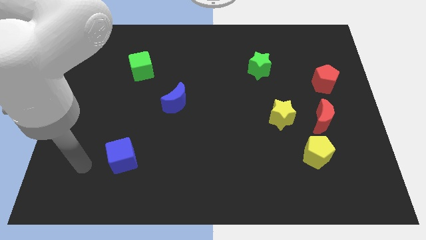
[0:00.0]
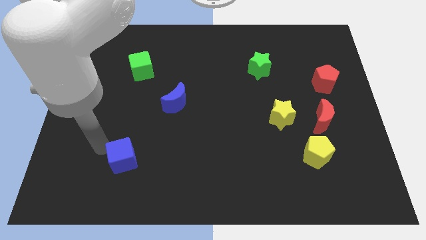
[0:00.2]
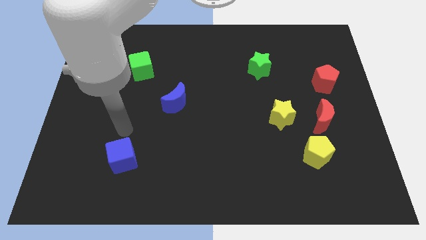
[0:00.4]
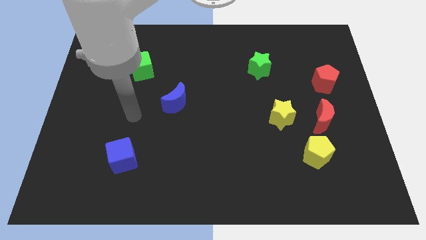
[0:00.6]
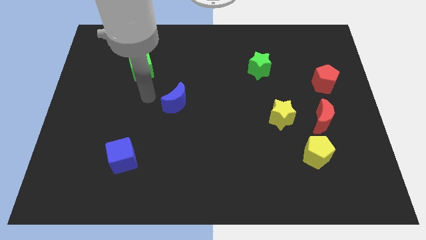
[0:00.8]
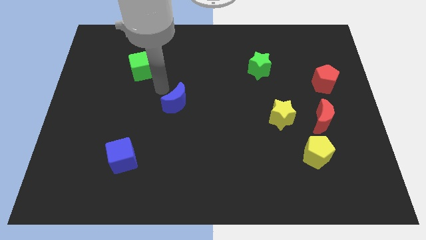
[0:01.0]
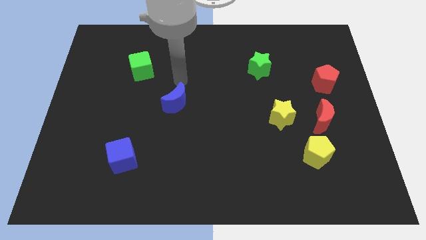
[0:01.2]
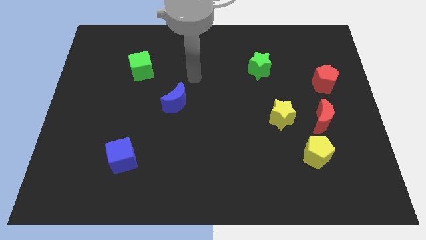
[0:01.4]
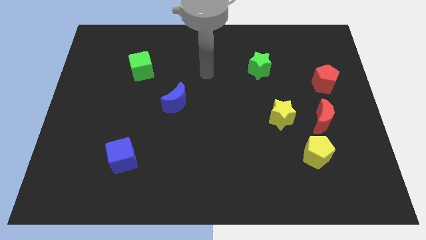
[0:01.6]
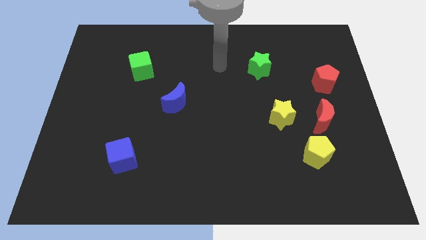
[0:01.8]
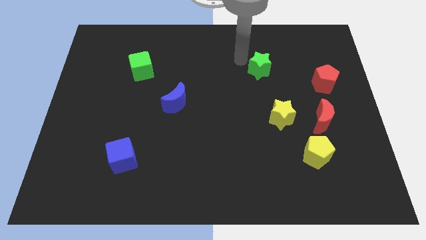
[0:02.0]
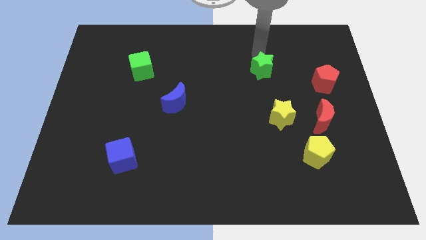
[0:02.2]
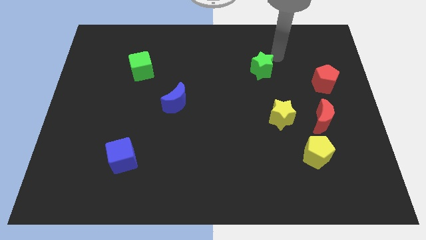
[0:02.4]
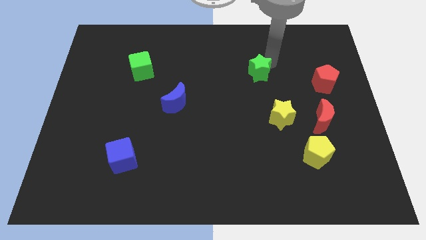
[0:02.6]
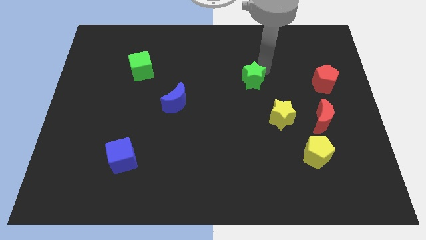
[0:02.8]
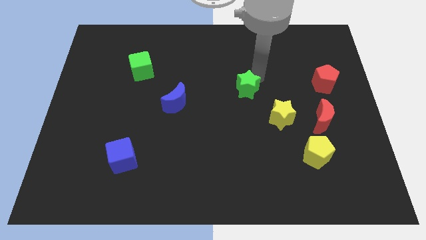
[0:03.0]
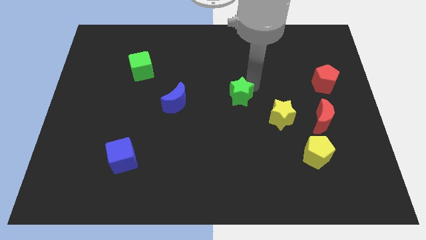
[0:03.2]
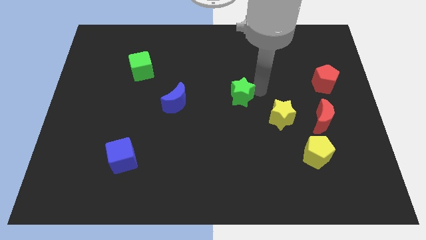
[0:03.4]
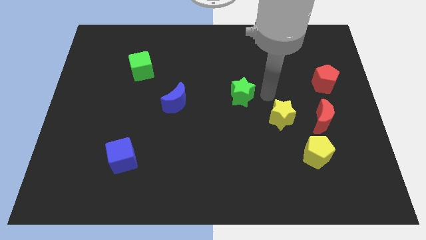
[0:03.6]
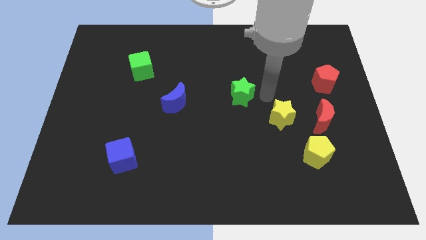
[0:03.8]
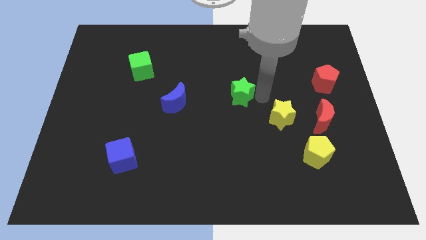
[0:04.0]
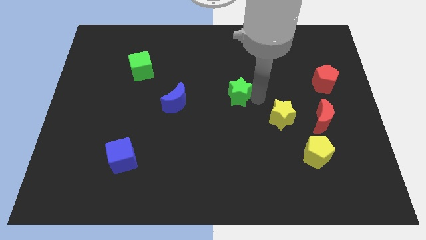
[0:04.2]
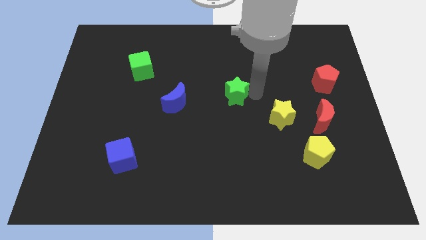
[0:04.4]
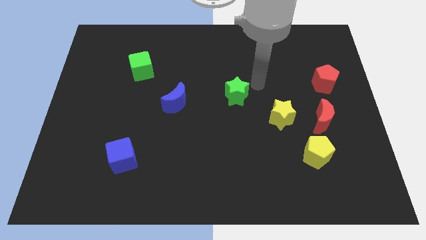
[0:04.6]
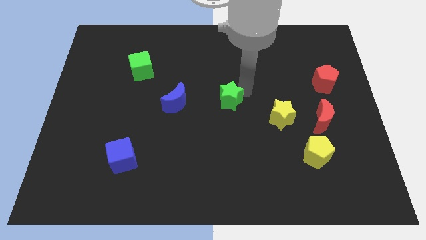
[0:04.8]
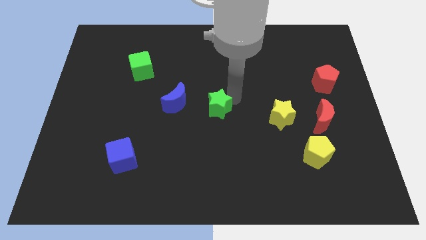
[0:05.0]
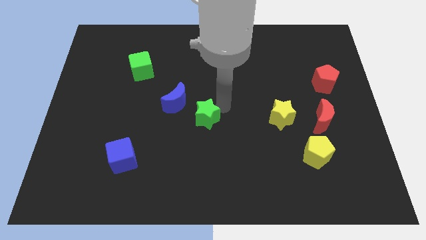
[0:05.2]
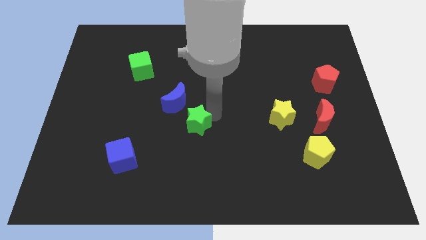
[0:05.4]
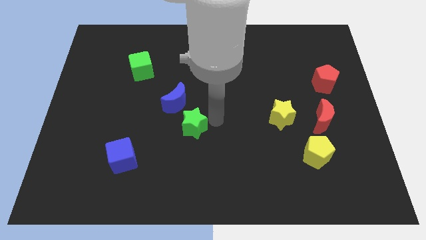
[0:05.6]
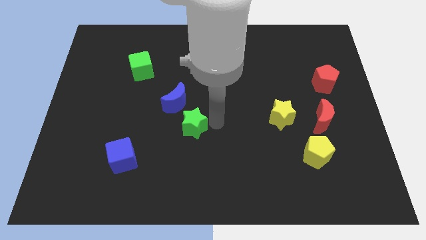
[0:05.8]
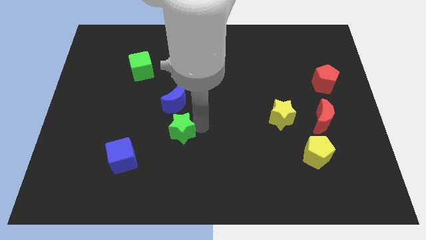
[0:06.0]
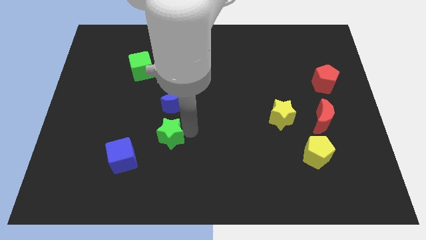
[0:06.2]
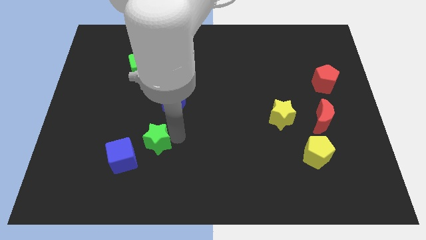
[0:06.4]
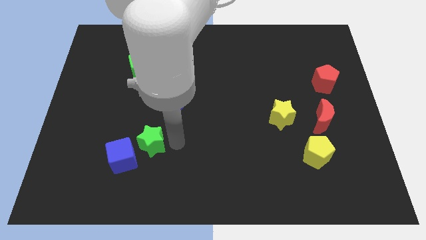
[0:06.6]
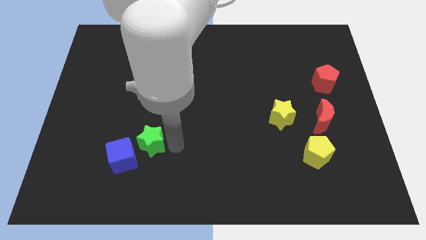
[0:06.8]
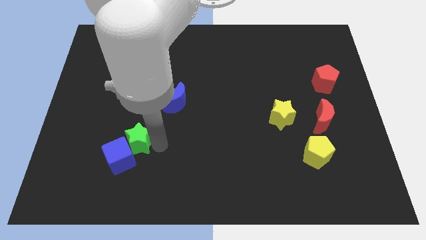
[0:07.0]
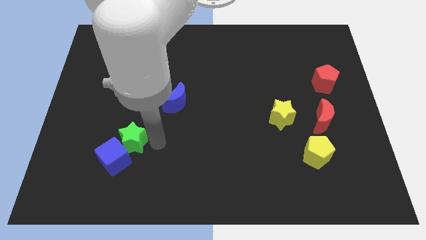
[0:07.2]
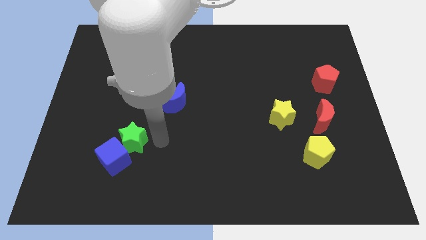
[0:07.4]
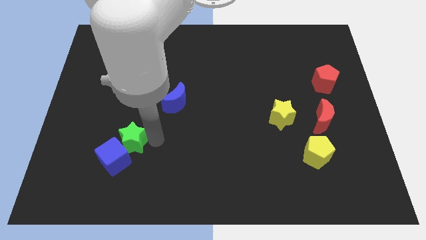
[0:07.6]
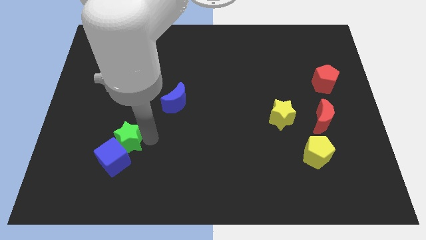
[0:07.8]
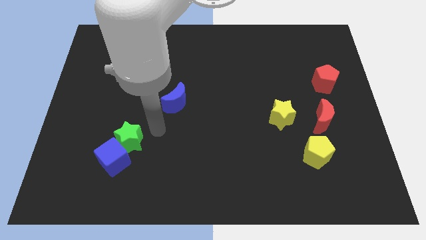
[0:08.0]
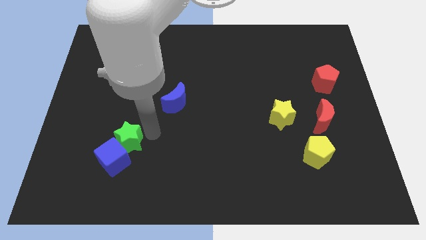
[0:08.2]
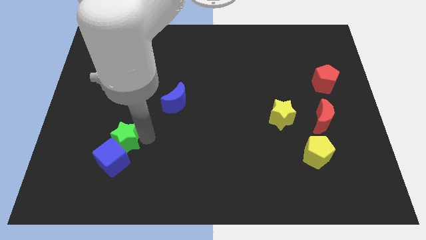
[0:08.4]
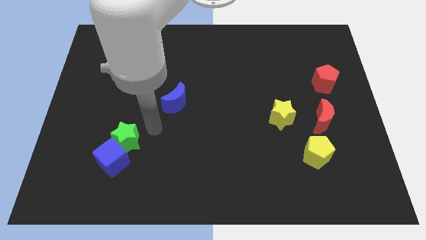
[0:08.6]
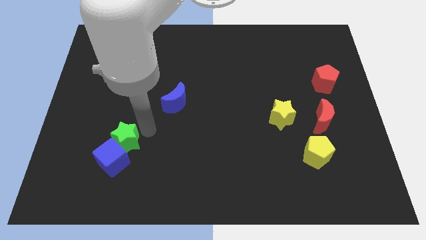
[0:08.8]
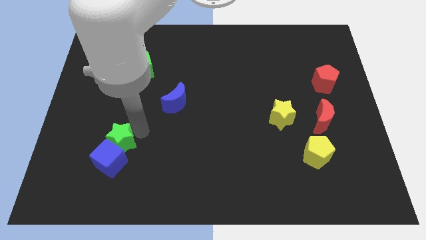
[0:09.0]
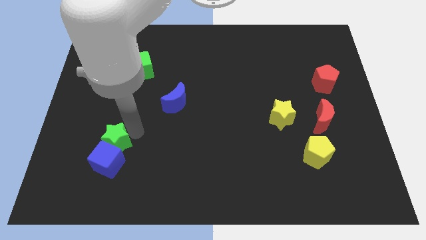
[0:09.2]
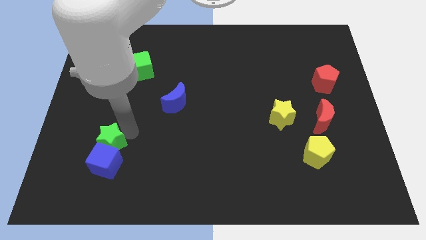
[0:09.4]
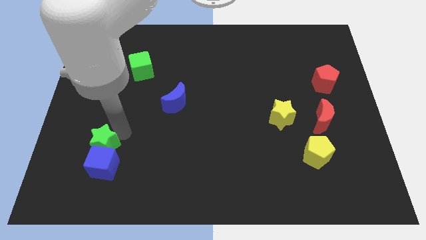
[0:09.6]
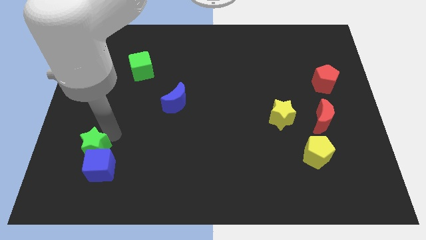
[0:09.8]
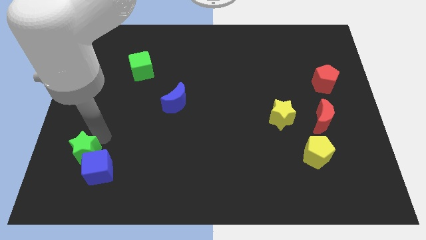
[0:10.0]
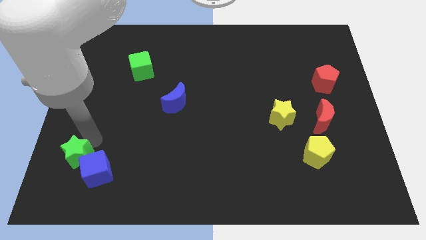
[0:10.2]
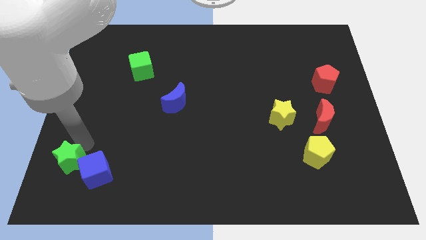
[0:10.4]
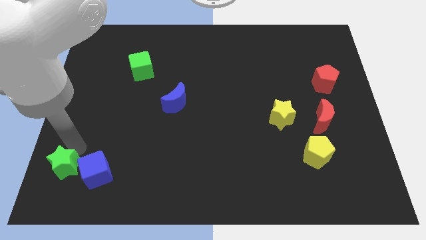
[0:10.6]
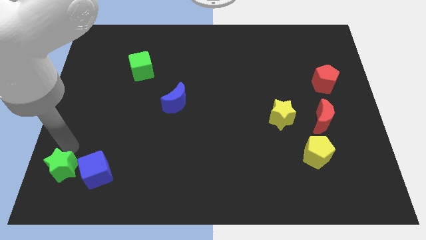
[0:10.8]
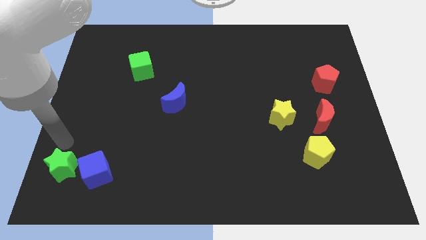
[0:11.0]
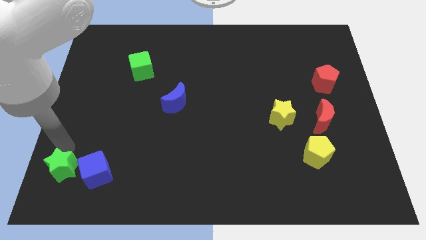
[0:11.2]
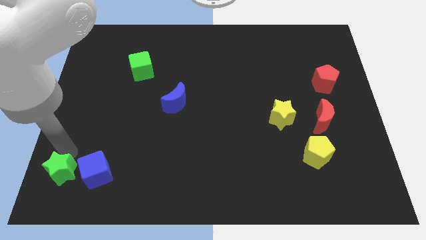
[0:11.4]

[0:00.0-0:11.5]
slide the green star to the bottom left of the blue cube

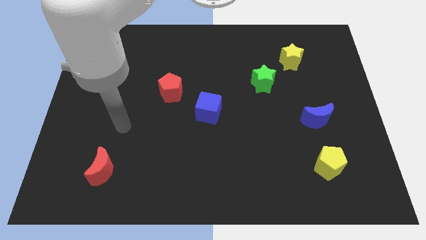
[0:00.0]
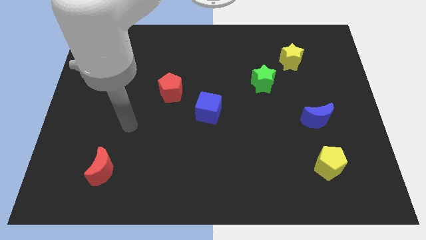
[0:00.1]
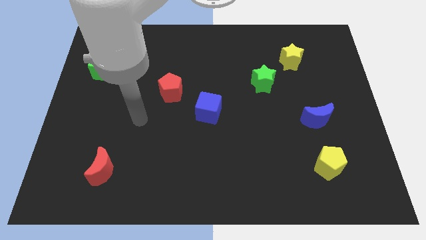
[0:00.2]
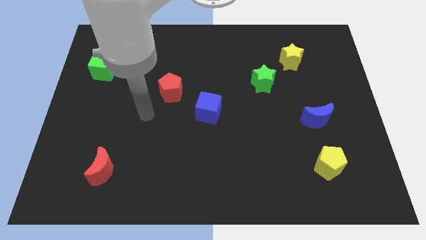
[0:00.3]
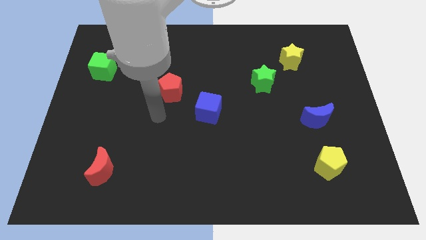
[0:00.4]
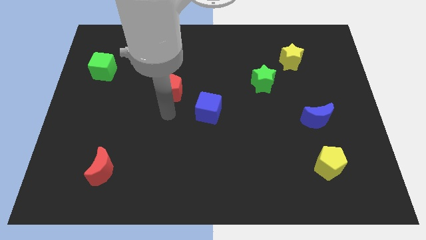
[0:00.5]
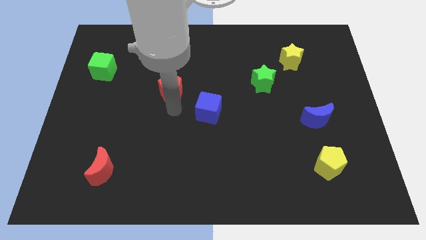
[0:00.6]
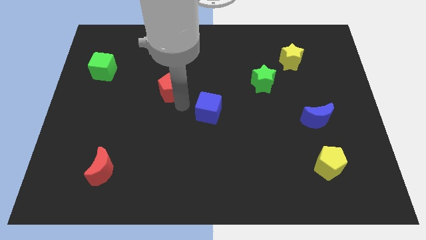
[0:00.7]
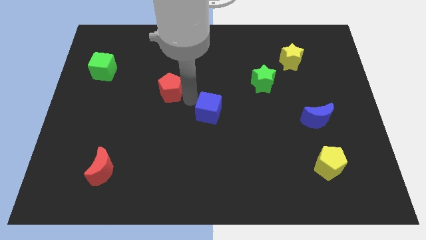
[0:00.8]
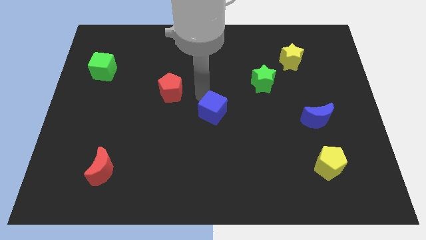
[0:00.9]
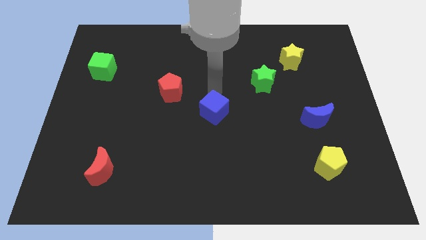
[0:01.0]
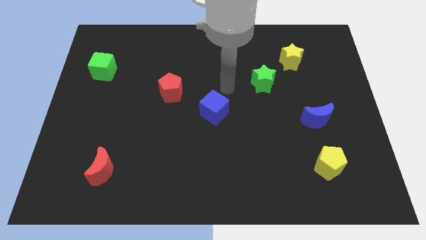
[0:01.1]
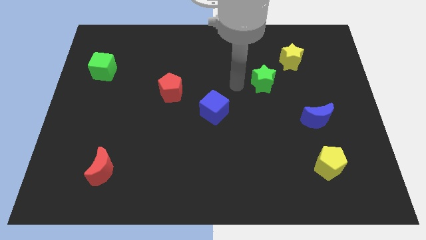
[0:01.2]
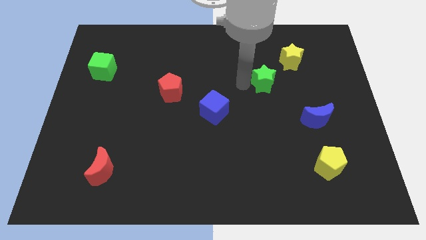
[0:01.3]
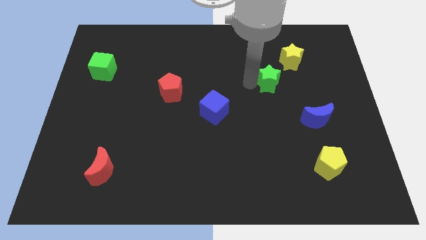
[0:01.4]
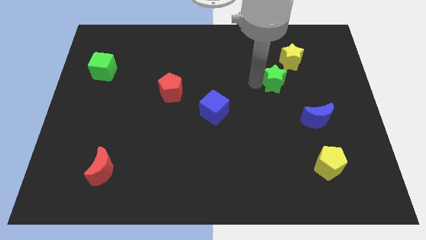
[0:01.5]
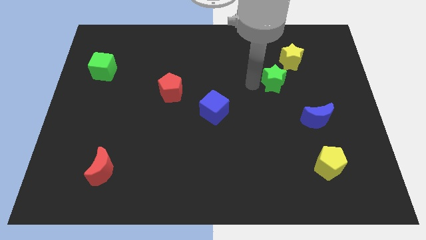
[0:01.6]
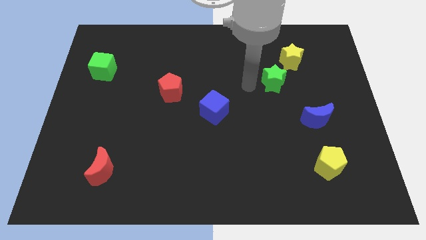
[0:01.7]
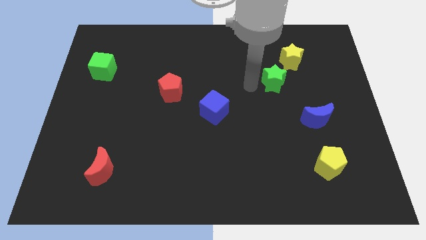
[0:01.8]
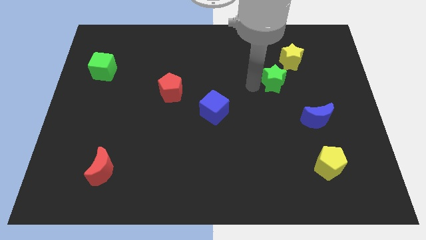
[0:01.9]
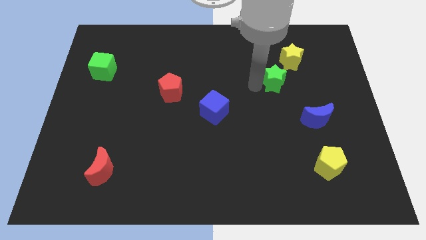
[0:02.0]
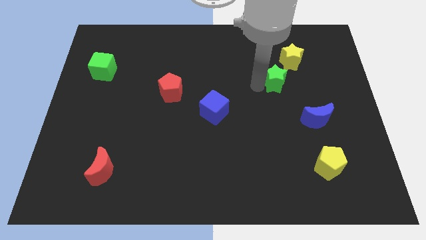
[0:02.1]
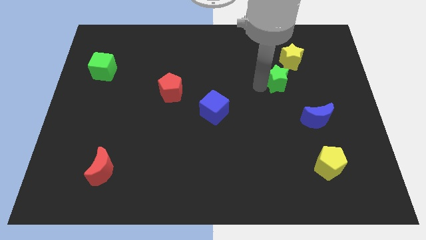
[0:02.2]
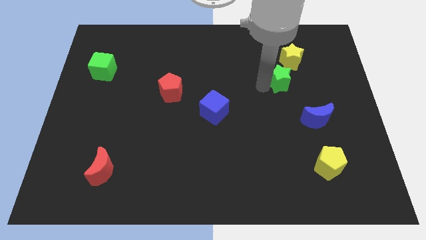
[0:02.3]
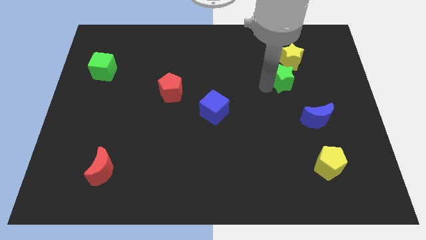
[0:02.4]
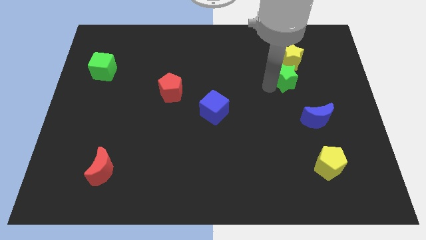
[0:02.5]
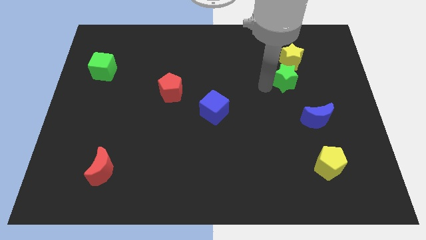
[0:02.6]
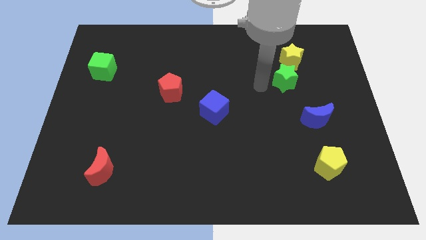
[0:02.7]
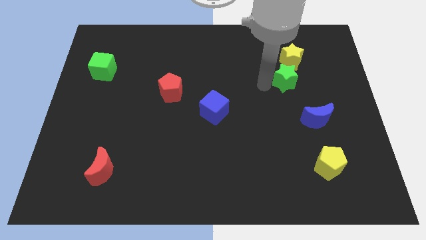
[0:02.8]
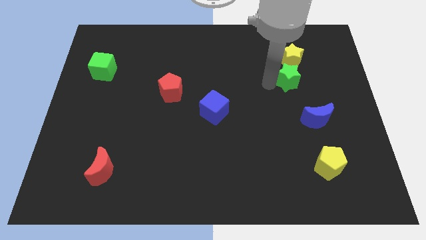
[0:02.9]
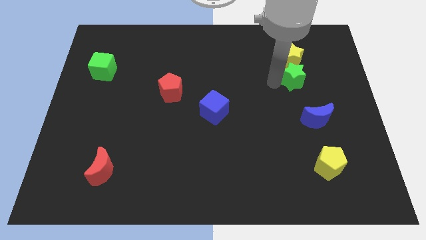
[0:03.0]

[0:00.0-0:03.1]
move the green star to the bottom right of the yellow star
